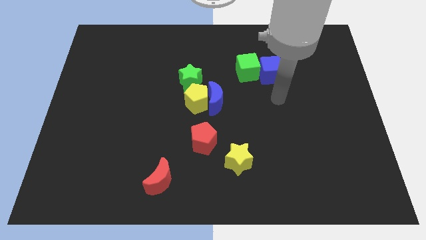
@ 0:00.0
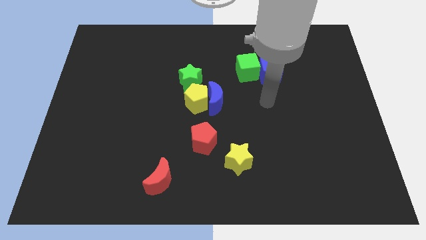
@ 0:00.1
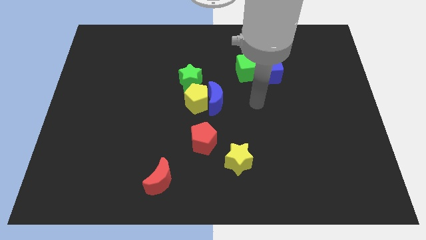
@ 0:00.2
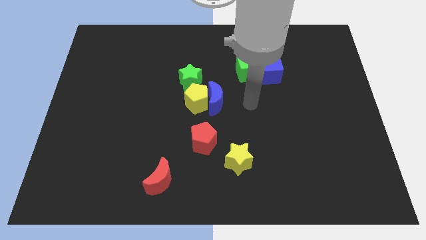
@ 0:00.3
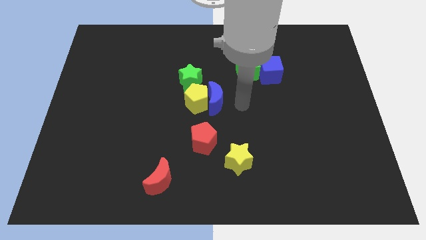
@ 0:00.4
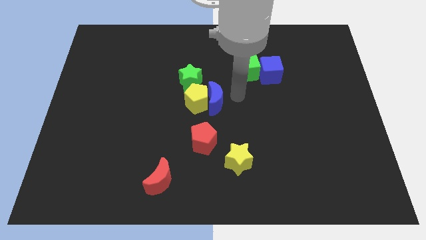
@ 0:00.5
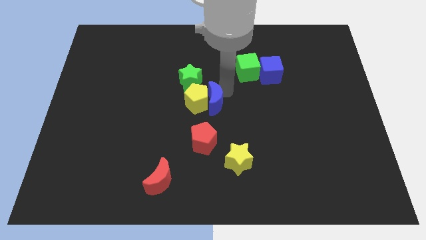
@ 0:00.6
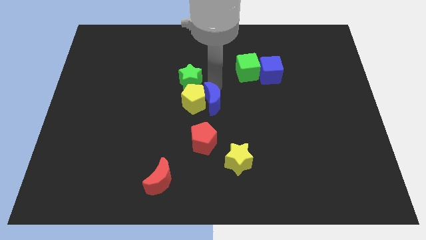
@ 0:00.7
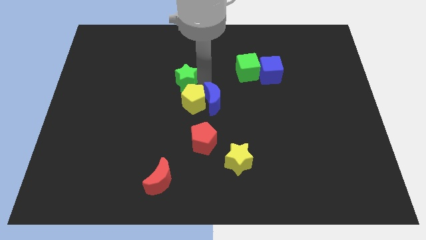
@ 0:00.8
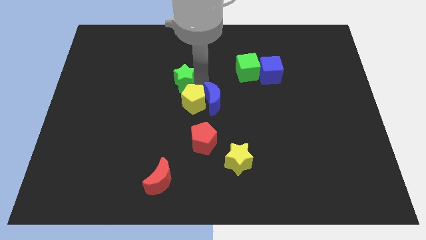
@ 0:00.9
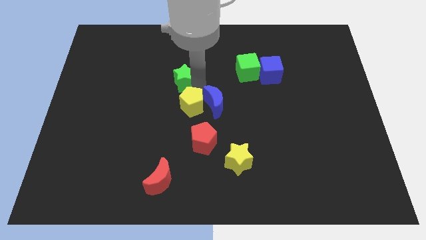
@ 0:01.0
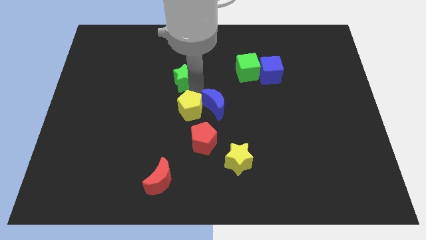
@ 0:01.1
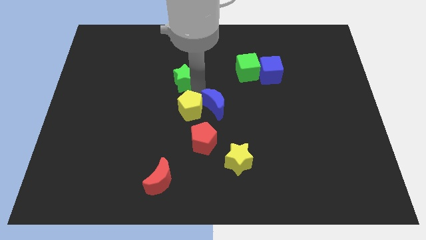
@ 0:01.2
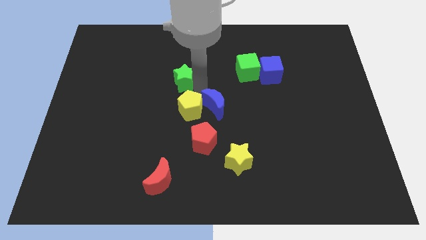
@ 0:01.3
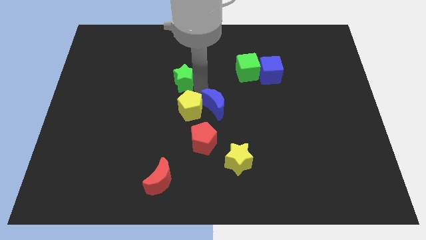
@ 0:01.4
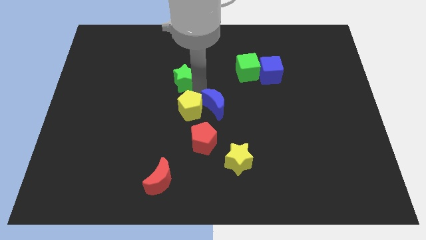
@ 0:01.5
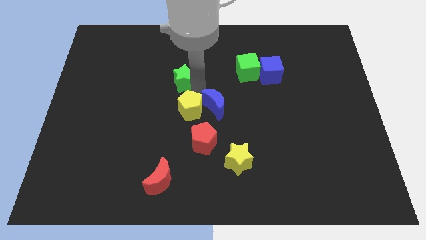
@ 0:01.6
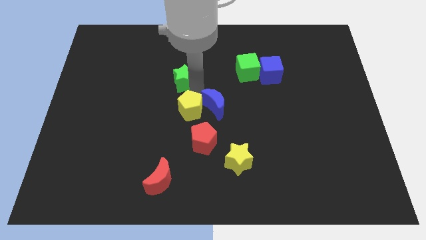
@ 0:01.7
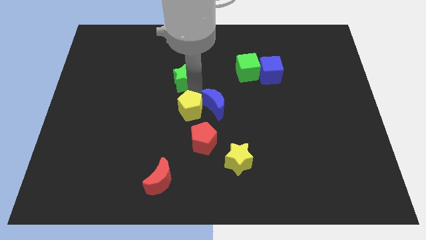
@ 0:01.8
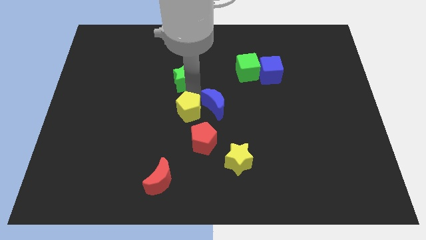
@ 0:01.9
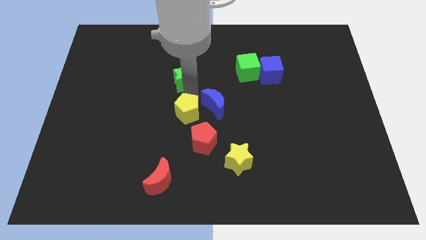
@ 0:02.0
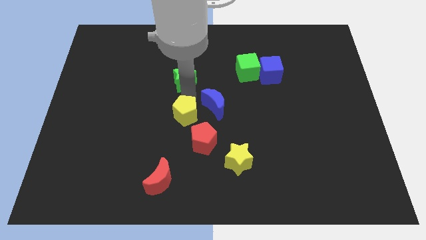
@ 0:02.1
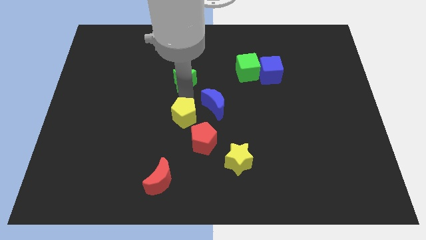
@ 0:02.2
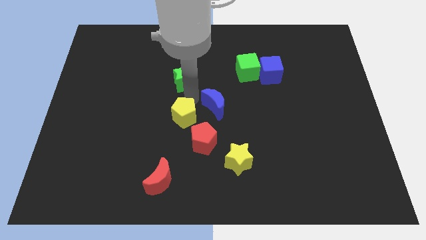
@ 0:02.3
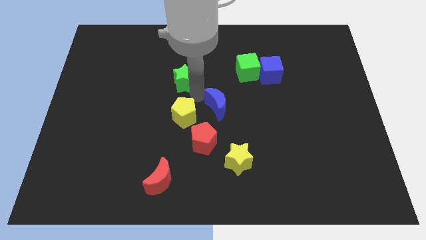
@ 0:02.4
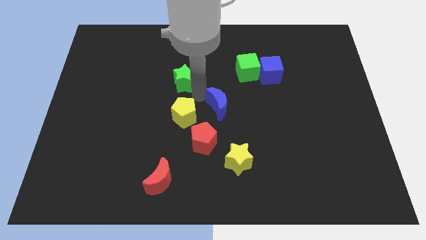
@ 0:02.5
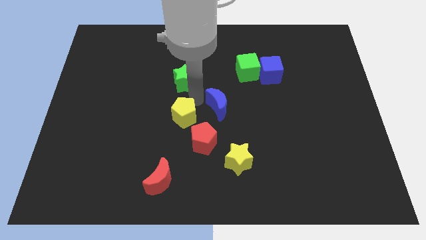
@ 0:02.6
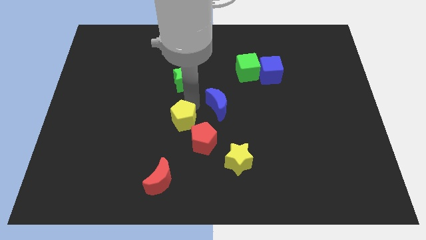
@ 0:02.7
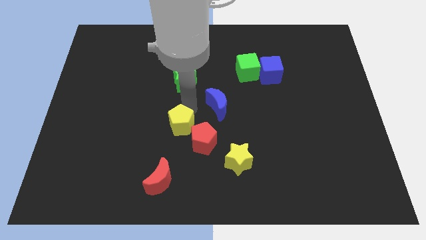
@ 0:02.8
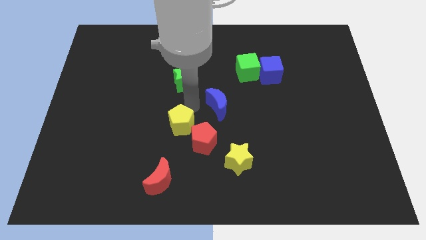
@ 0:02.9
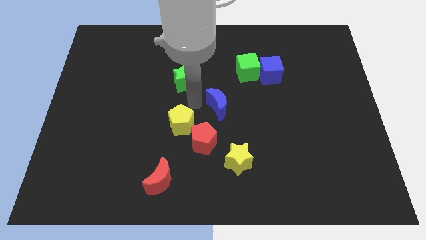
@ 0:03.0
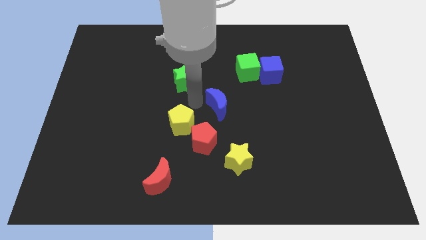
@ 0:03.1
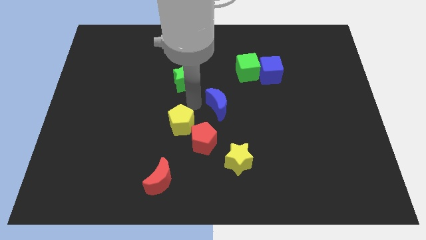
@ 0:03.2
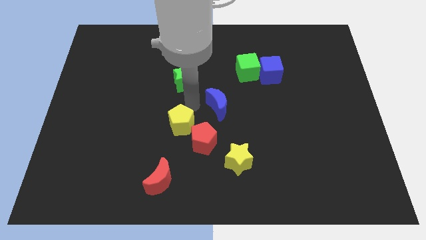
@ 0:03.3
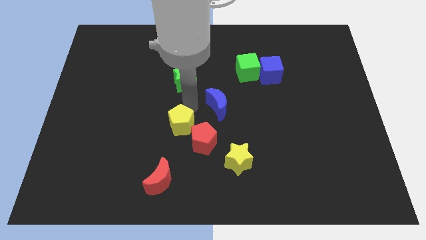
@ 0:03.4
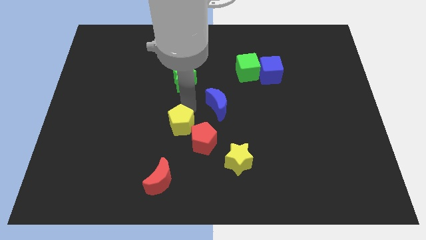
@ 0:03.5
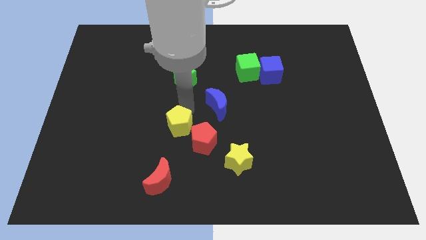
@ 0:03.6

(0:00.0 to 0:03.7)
separate the yellow pentagon from the blue moon and green star

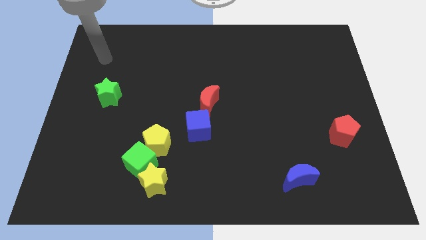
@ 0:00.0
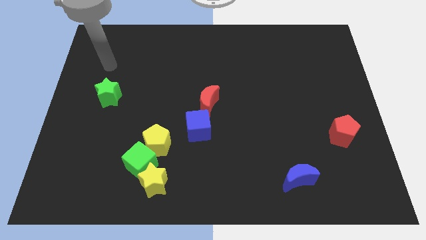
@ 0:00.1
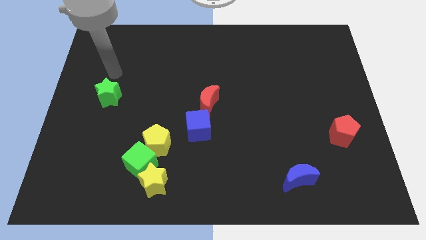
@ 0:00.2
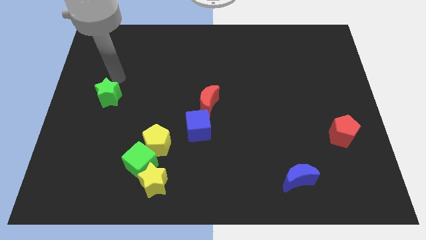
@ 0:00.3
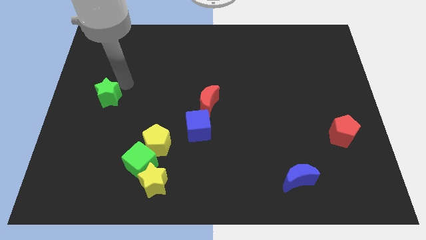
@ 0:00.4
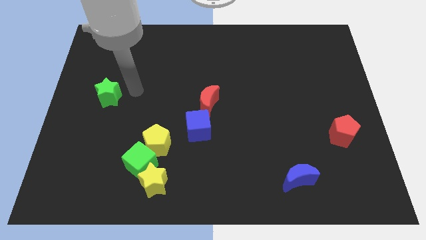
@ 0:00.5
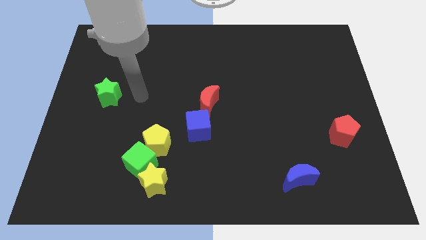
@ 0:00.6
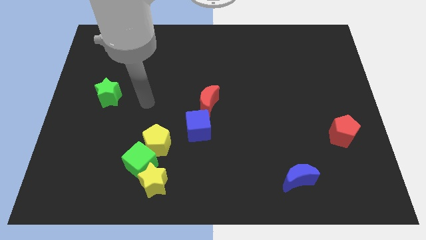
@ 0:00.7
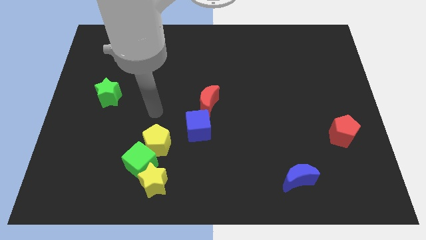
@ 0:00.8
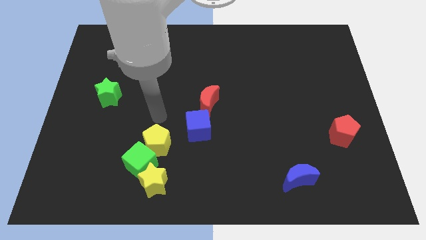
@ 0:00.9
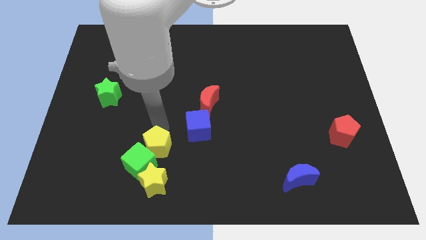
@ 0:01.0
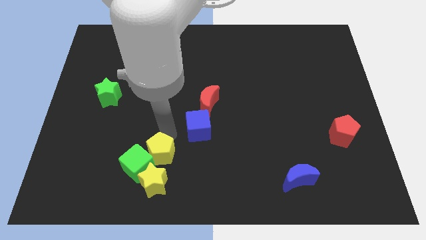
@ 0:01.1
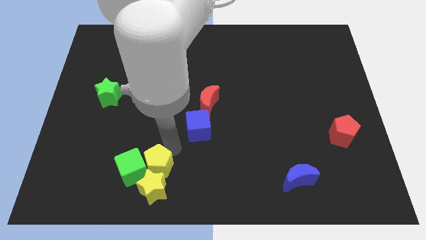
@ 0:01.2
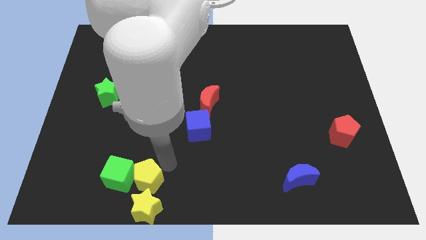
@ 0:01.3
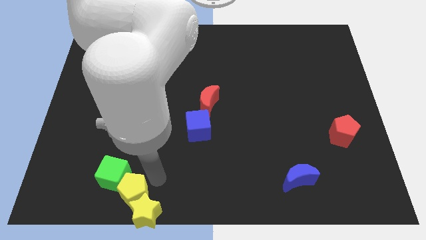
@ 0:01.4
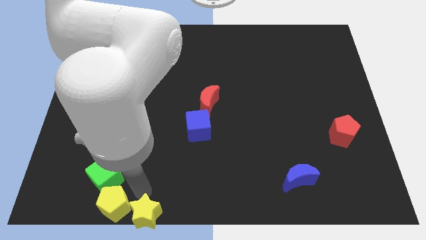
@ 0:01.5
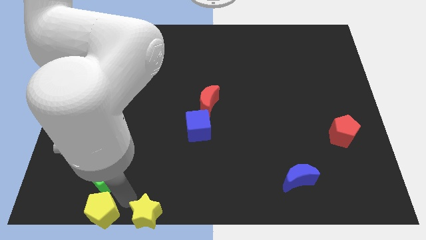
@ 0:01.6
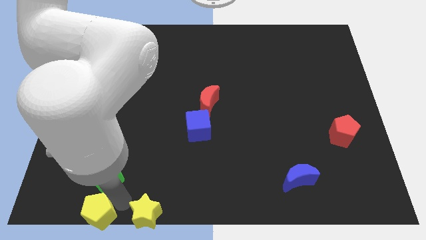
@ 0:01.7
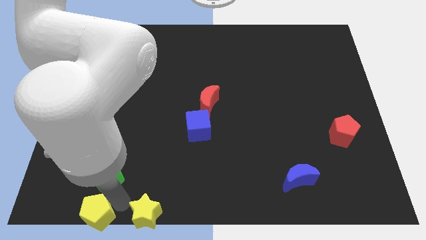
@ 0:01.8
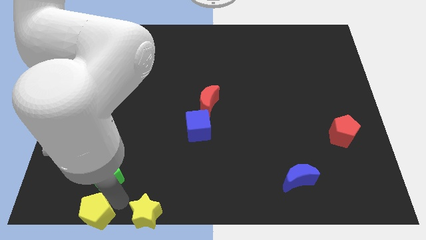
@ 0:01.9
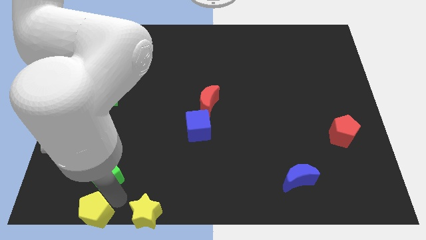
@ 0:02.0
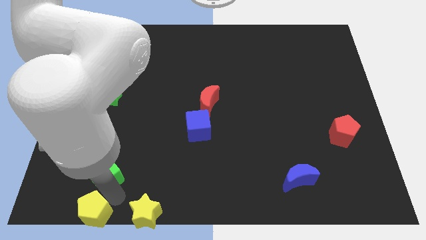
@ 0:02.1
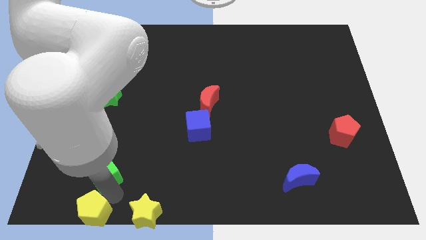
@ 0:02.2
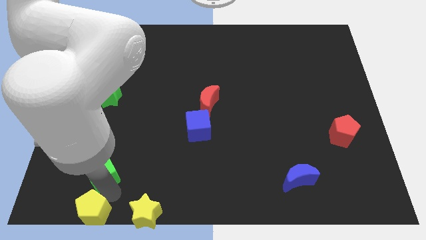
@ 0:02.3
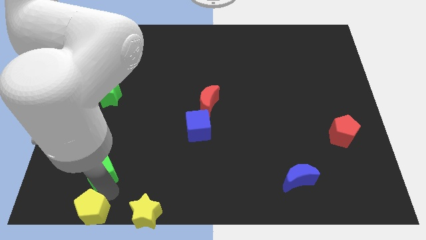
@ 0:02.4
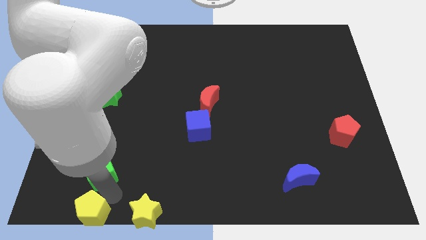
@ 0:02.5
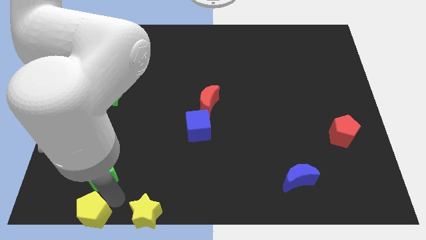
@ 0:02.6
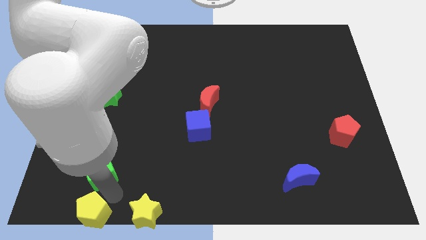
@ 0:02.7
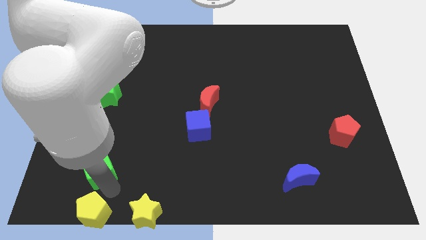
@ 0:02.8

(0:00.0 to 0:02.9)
pull the green cube apart from the yellow star and yellow pentagon

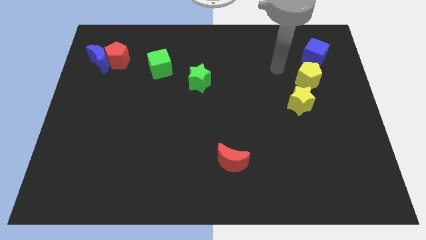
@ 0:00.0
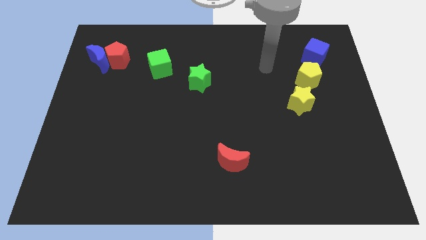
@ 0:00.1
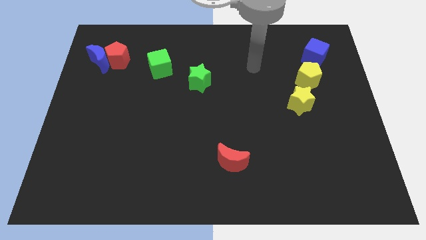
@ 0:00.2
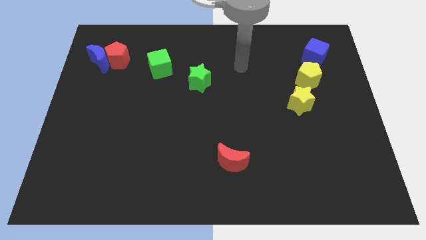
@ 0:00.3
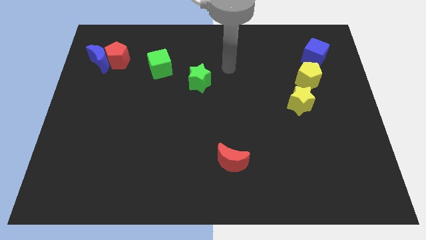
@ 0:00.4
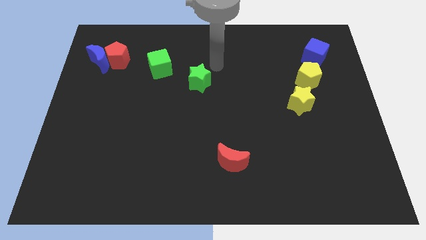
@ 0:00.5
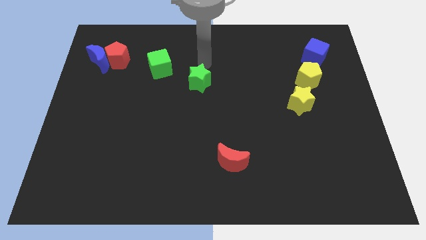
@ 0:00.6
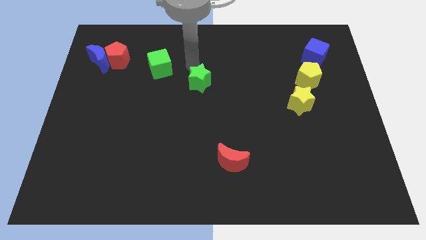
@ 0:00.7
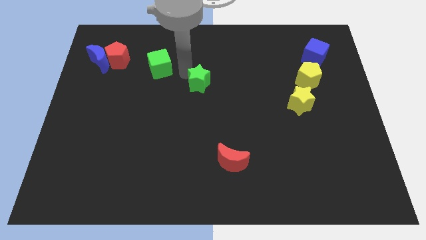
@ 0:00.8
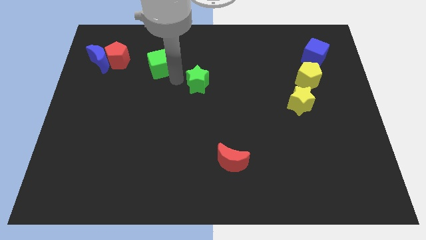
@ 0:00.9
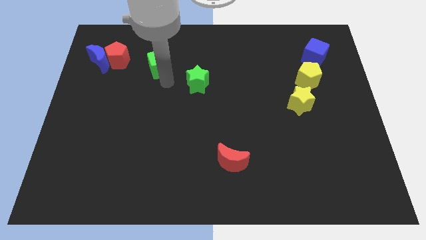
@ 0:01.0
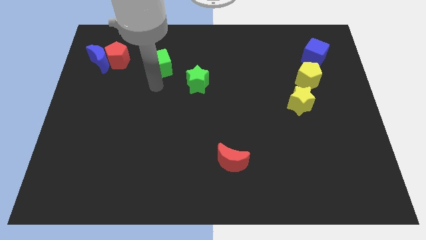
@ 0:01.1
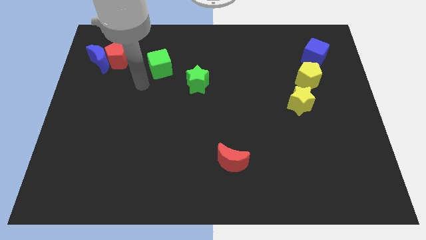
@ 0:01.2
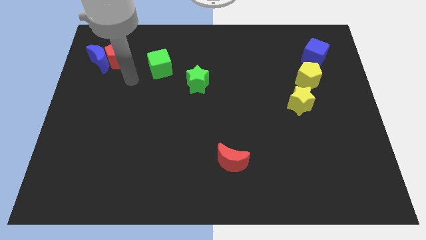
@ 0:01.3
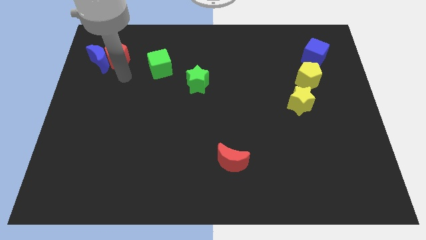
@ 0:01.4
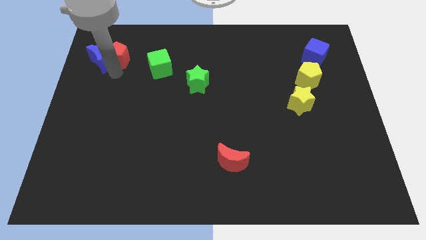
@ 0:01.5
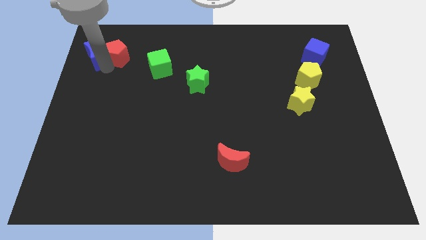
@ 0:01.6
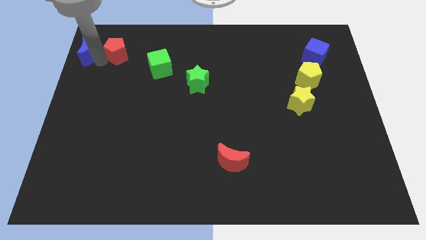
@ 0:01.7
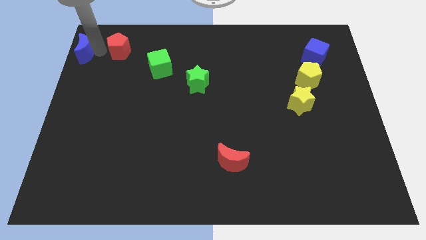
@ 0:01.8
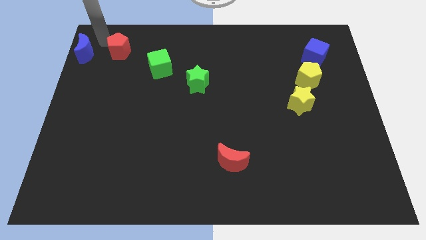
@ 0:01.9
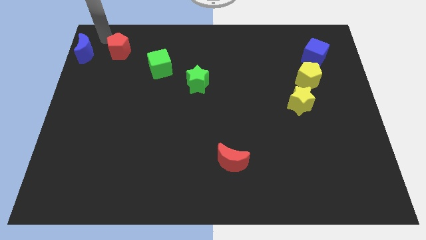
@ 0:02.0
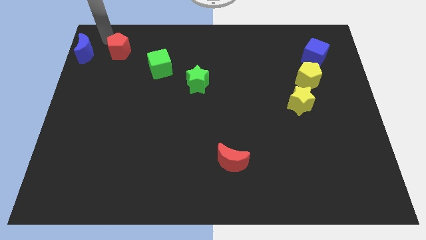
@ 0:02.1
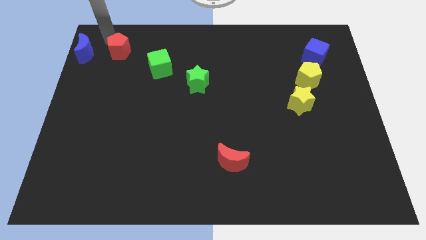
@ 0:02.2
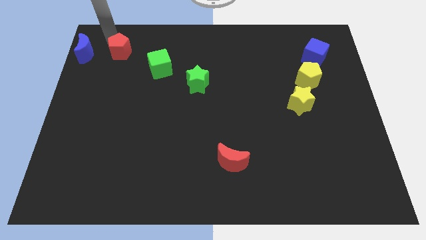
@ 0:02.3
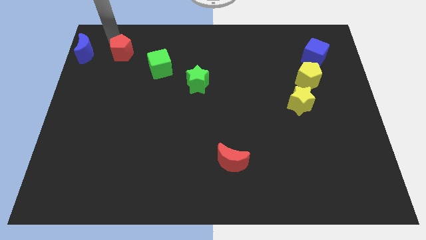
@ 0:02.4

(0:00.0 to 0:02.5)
pull the red pentagon apart from the blue moon

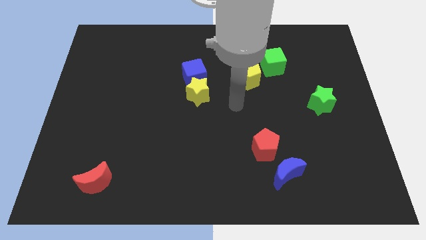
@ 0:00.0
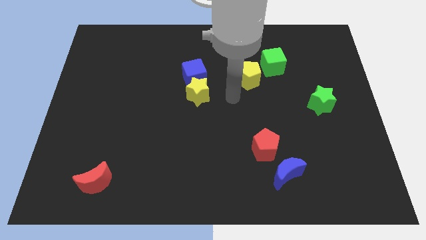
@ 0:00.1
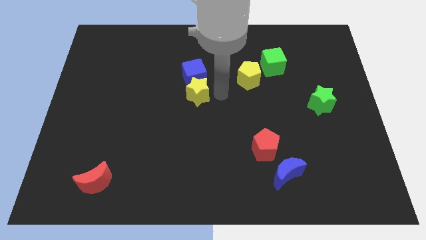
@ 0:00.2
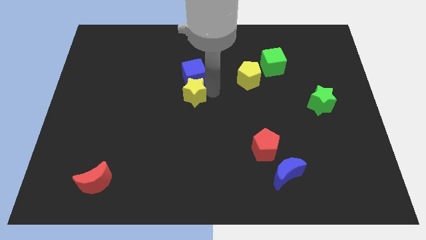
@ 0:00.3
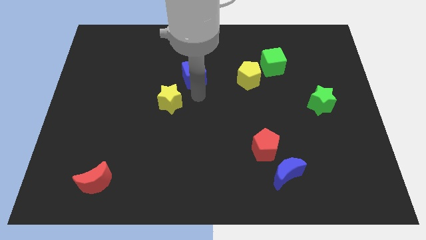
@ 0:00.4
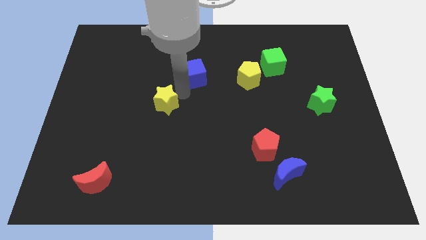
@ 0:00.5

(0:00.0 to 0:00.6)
pull the blue cube apart from the yellow star
